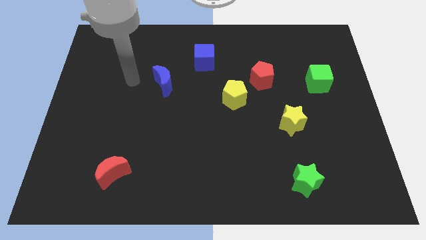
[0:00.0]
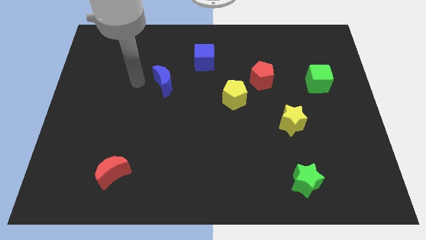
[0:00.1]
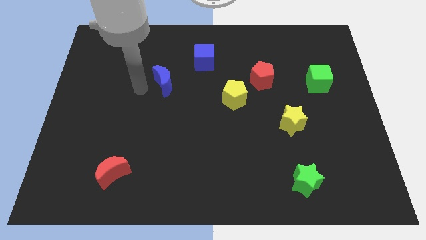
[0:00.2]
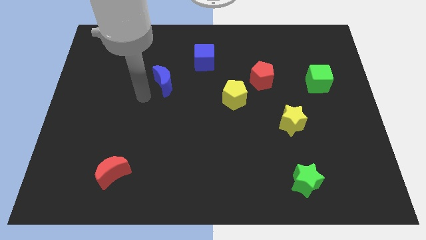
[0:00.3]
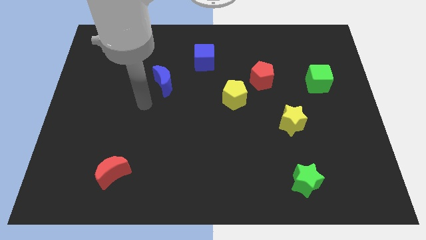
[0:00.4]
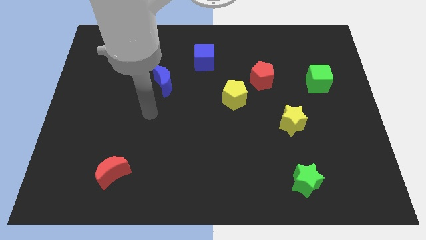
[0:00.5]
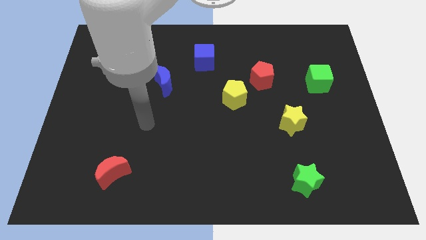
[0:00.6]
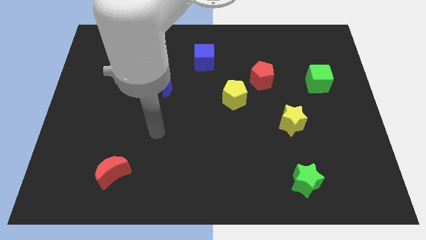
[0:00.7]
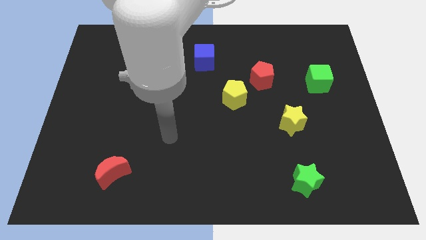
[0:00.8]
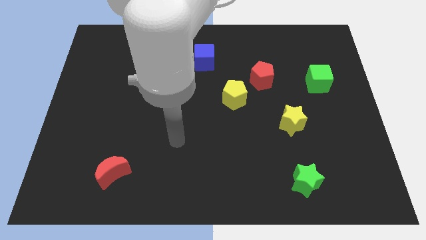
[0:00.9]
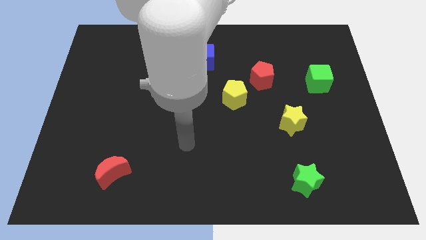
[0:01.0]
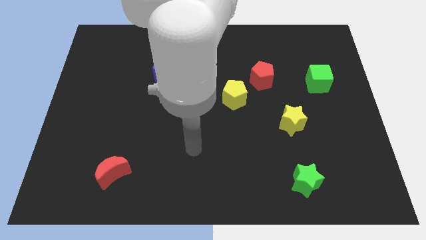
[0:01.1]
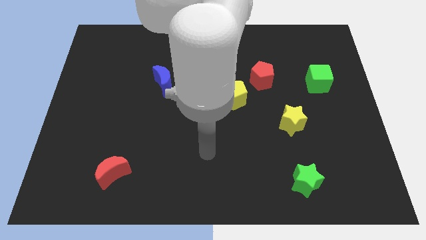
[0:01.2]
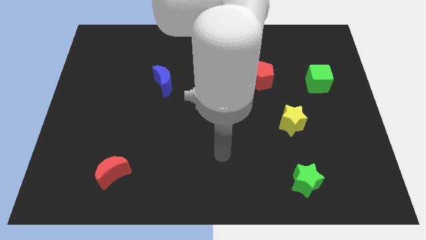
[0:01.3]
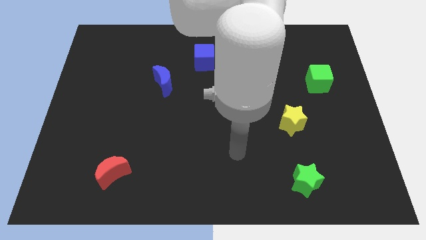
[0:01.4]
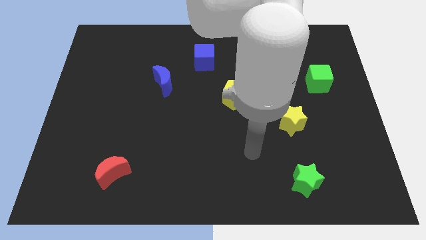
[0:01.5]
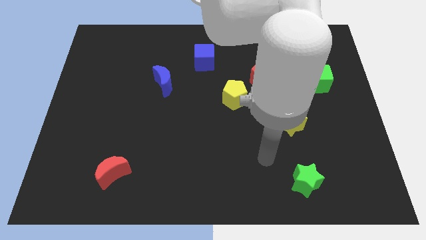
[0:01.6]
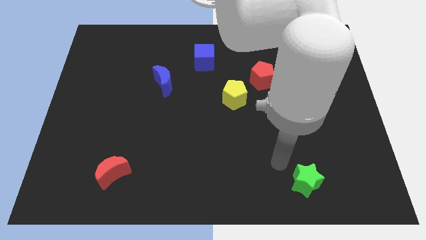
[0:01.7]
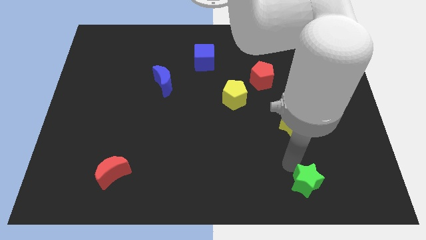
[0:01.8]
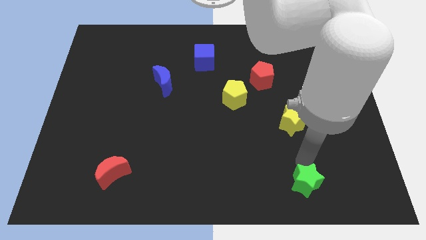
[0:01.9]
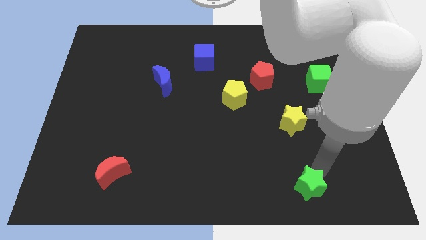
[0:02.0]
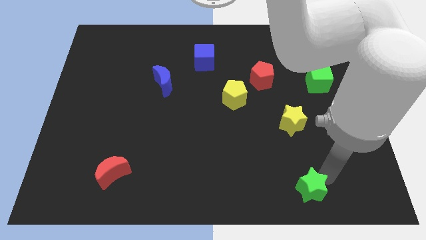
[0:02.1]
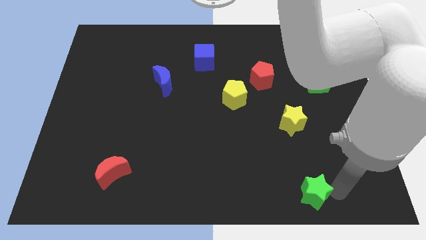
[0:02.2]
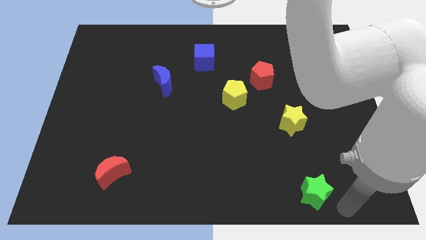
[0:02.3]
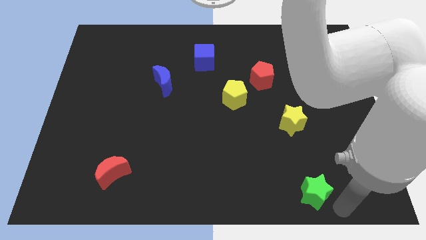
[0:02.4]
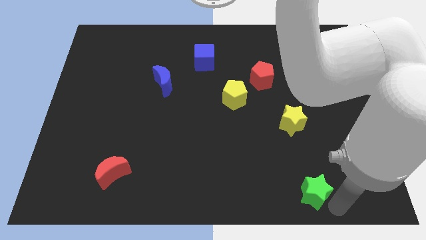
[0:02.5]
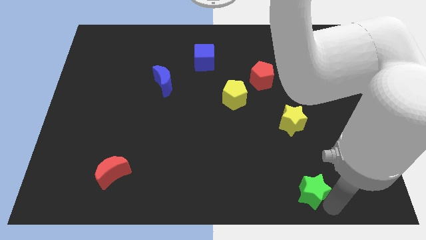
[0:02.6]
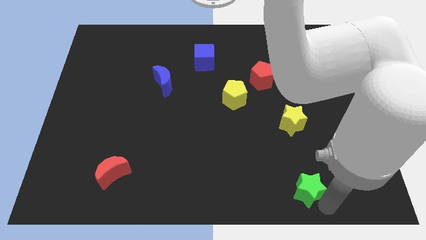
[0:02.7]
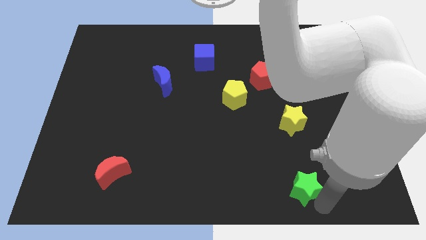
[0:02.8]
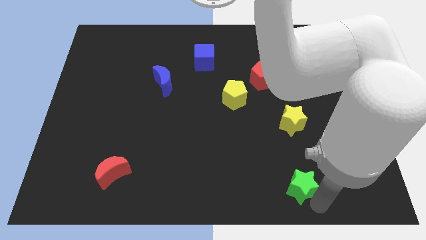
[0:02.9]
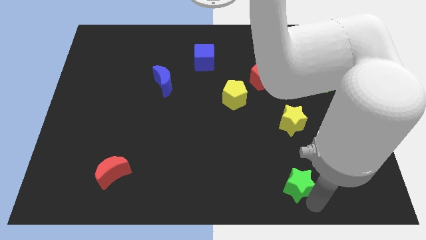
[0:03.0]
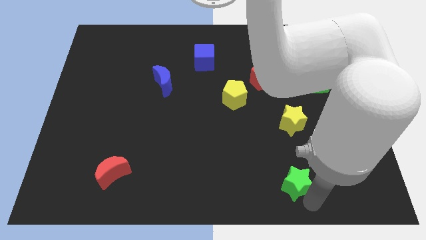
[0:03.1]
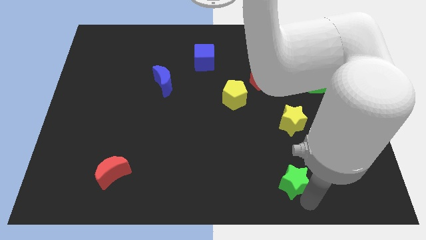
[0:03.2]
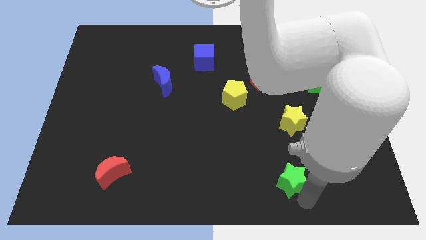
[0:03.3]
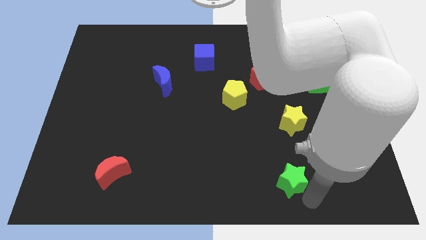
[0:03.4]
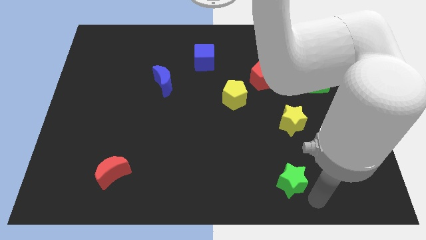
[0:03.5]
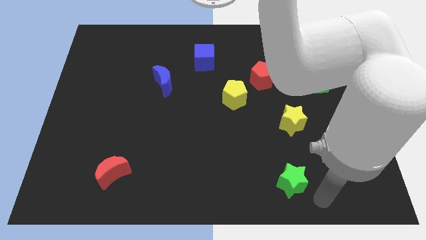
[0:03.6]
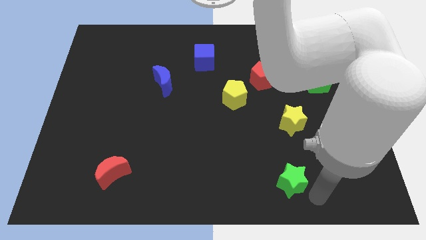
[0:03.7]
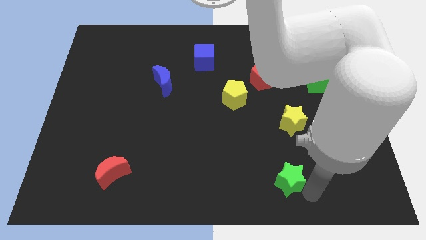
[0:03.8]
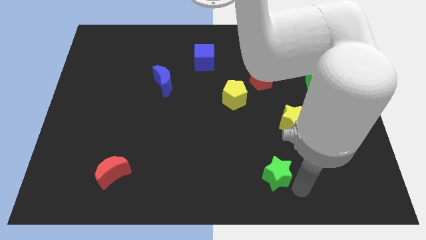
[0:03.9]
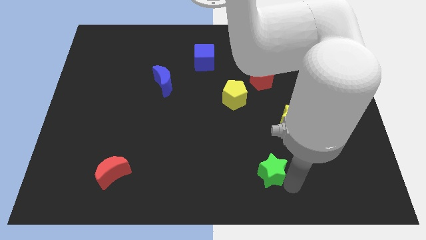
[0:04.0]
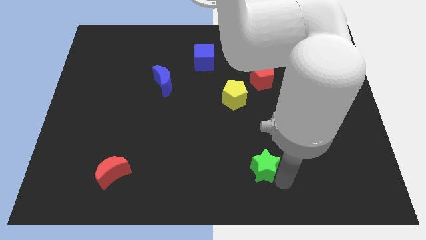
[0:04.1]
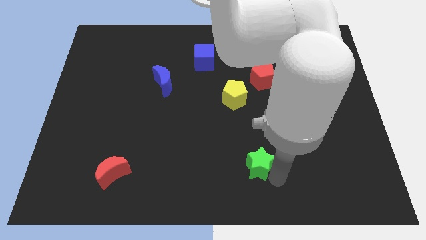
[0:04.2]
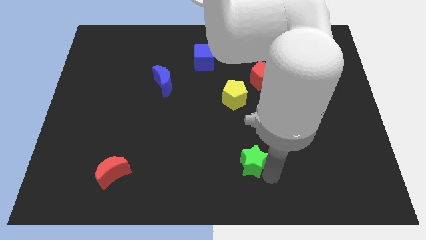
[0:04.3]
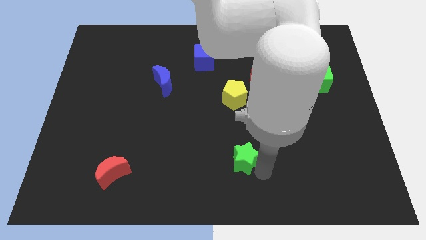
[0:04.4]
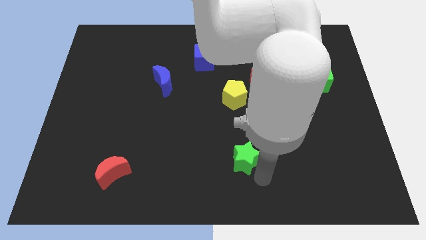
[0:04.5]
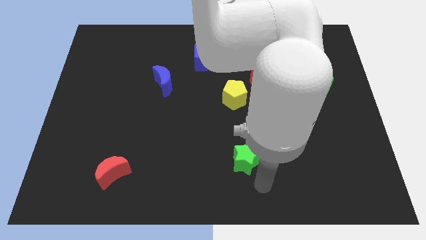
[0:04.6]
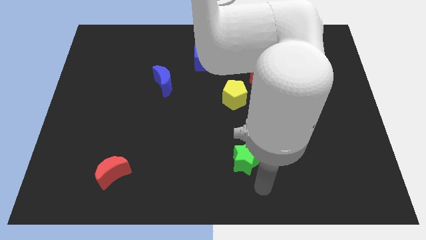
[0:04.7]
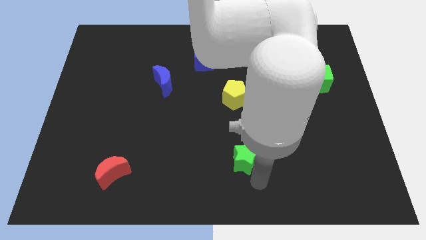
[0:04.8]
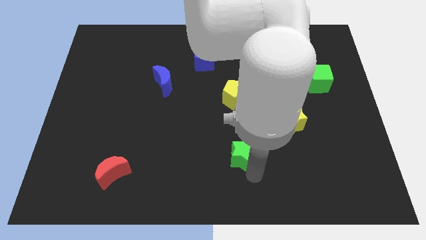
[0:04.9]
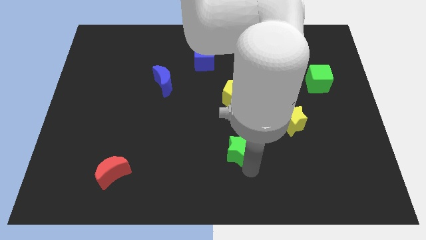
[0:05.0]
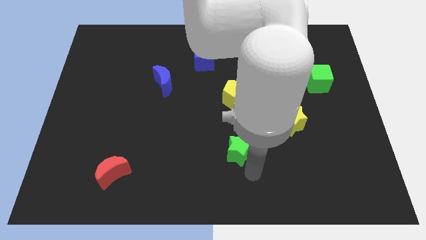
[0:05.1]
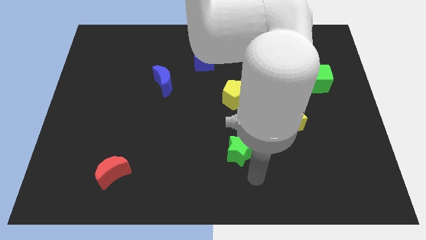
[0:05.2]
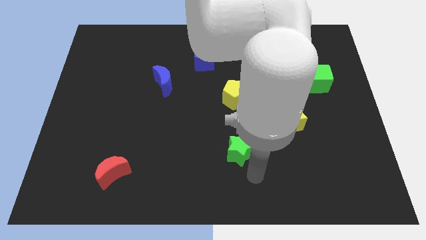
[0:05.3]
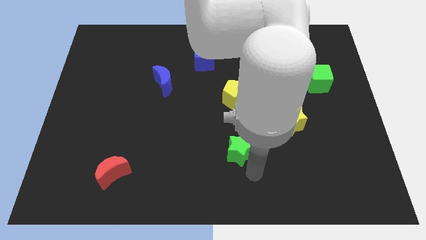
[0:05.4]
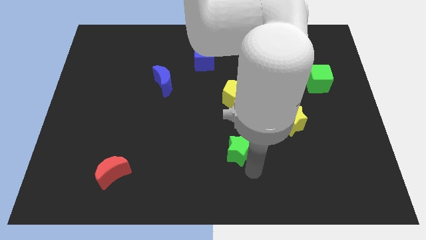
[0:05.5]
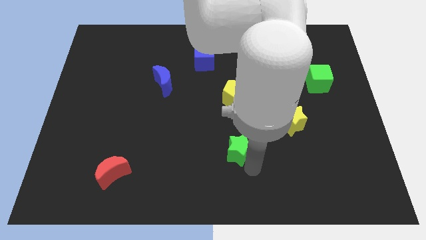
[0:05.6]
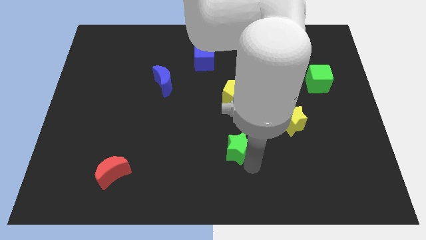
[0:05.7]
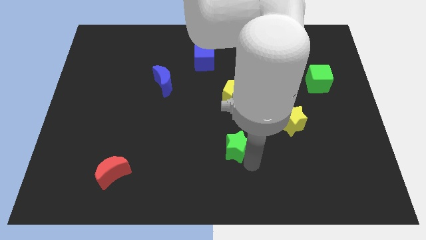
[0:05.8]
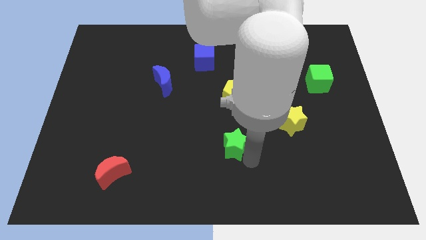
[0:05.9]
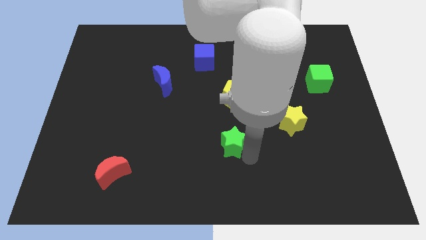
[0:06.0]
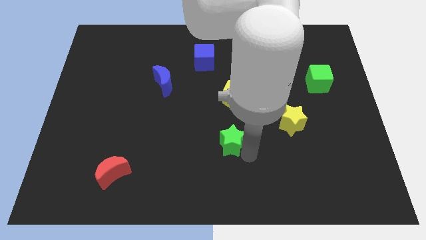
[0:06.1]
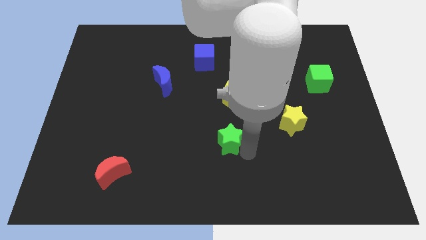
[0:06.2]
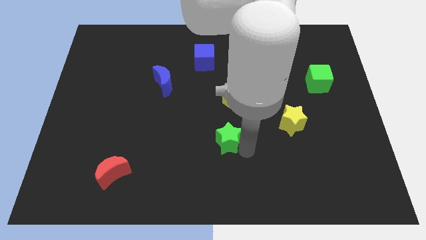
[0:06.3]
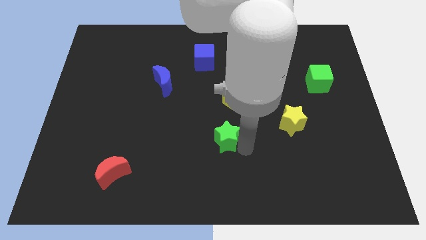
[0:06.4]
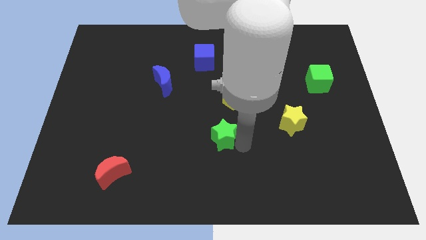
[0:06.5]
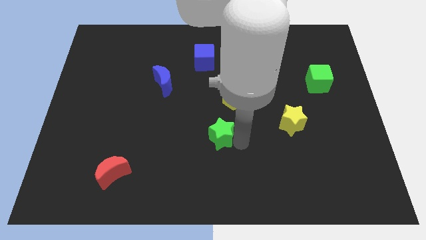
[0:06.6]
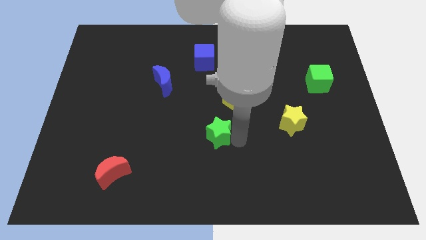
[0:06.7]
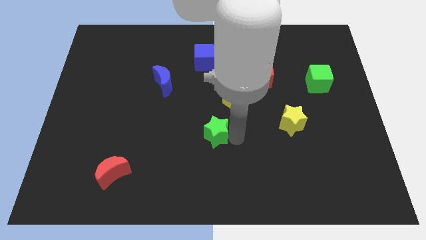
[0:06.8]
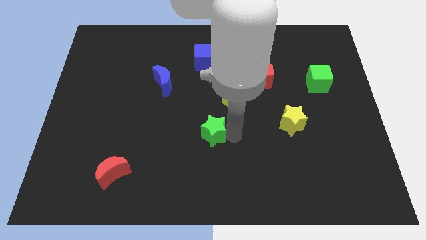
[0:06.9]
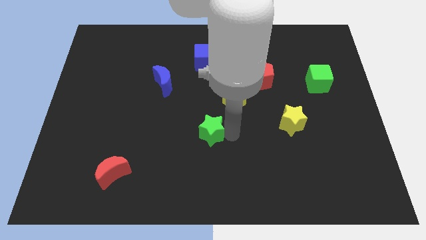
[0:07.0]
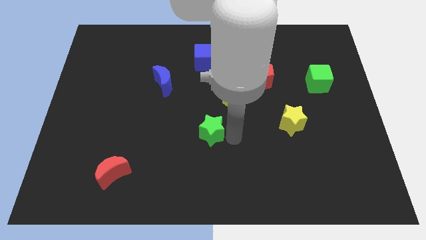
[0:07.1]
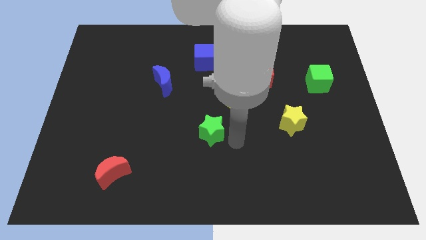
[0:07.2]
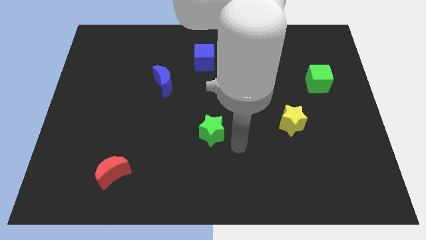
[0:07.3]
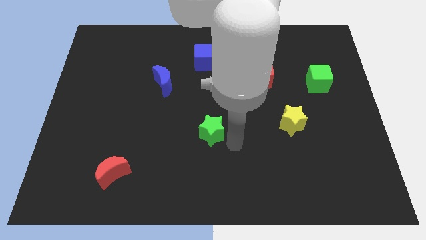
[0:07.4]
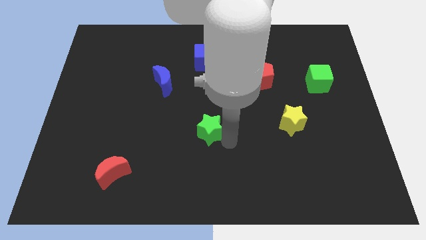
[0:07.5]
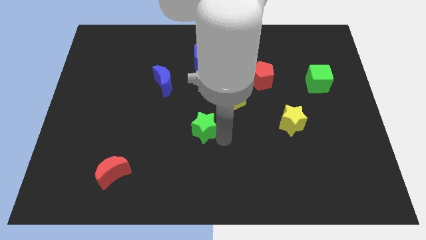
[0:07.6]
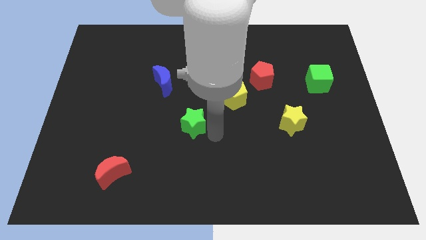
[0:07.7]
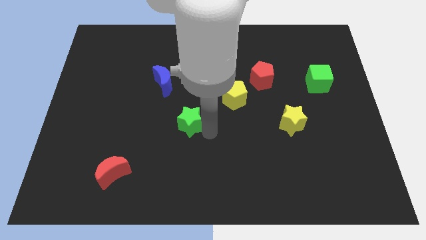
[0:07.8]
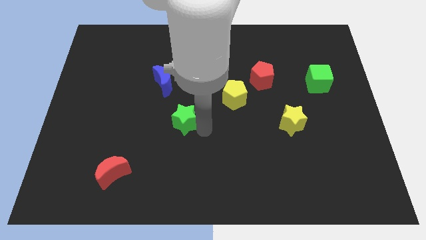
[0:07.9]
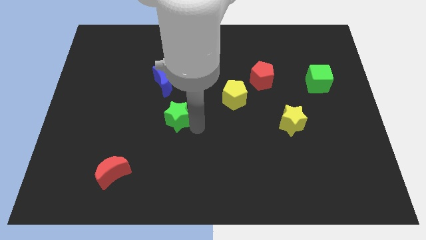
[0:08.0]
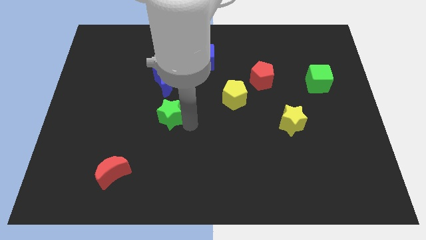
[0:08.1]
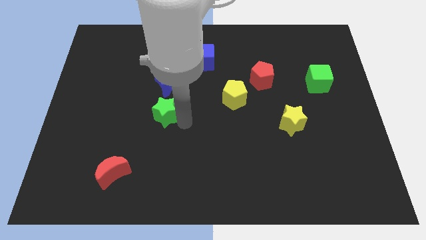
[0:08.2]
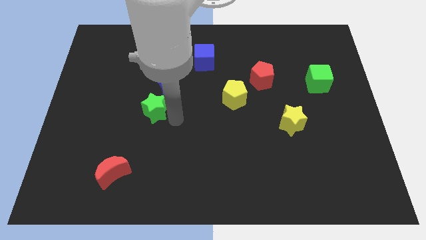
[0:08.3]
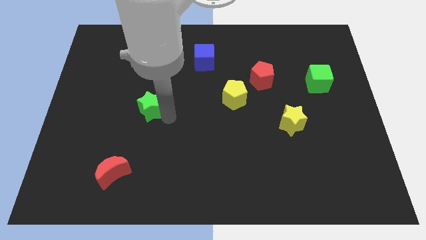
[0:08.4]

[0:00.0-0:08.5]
push the green star diagonally down and to the left of the blue moon
